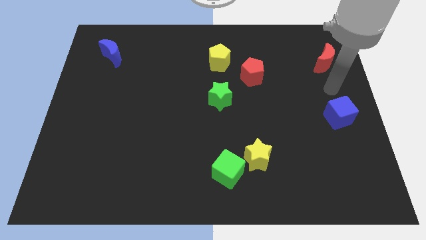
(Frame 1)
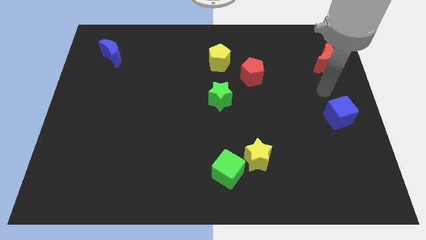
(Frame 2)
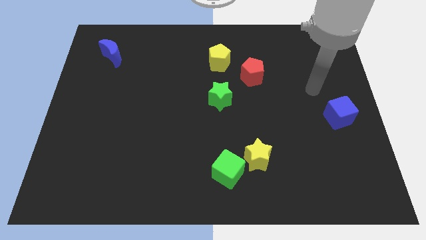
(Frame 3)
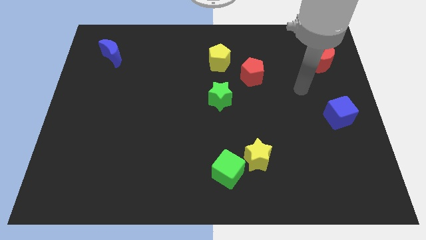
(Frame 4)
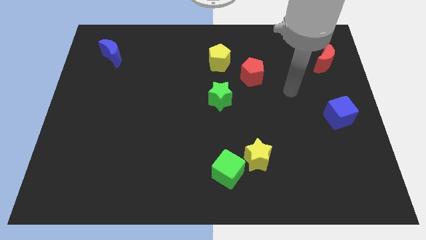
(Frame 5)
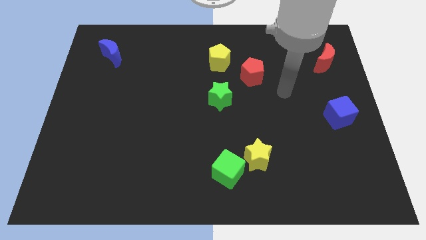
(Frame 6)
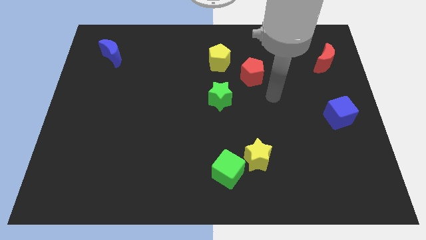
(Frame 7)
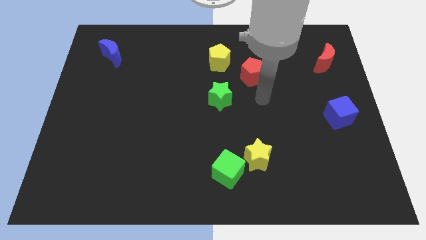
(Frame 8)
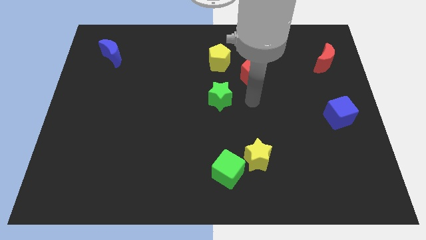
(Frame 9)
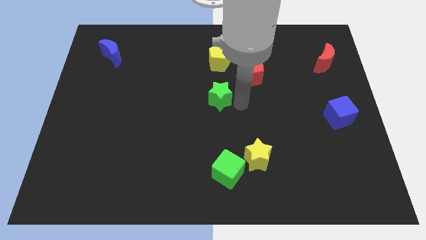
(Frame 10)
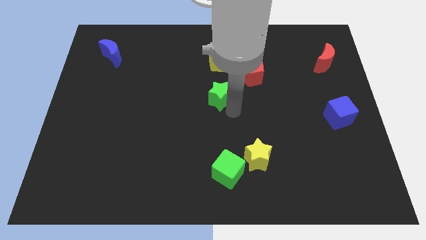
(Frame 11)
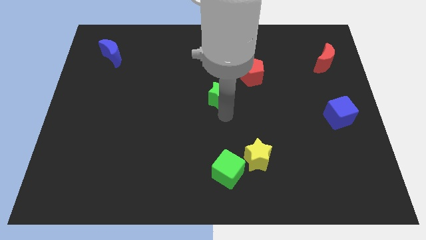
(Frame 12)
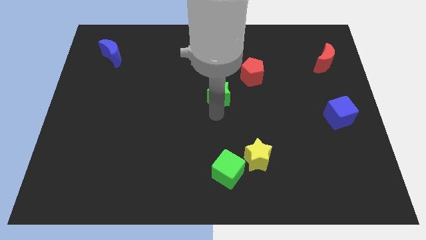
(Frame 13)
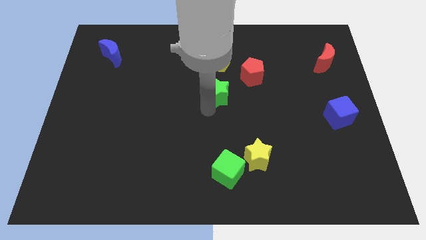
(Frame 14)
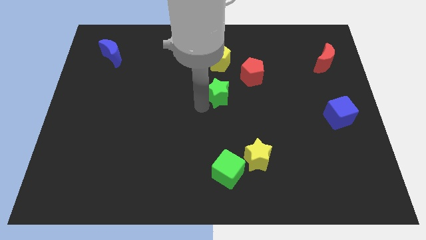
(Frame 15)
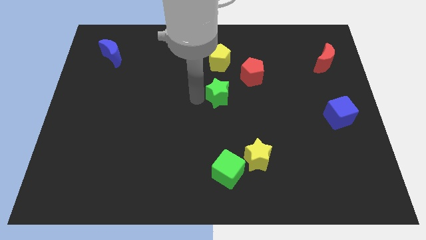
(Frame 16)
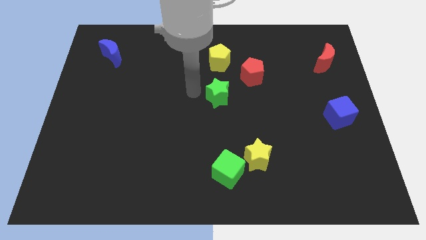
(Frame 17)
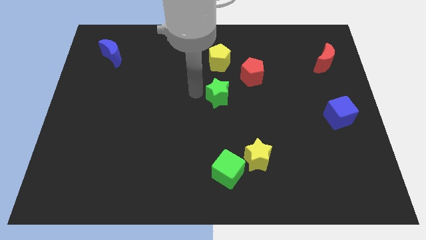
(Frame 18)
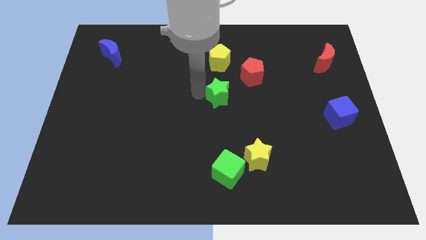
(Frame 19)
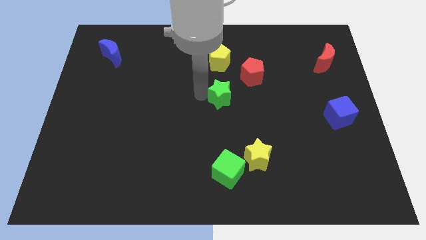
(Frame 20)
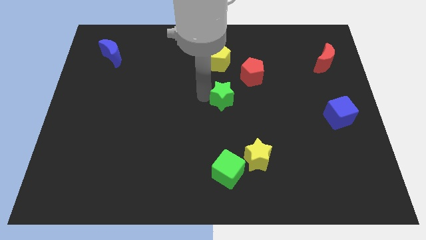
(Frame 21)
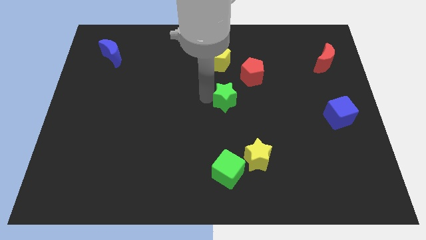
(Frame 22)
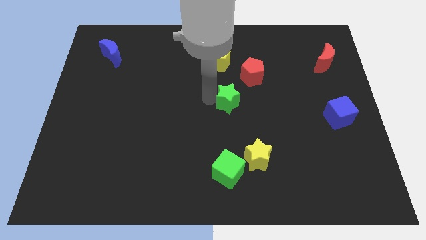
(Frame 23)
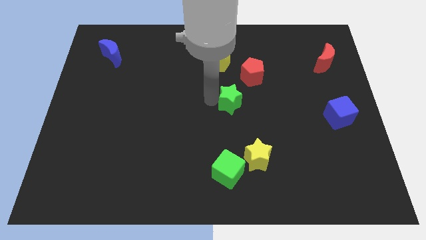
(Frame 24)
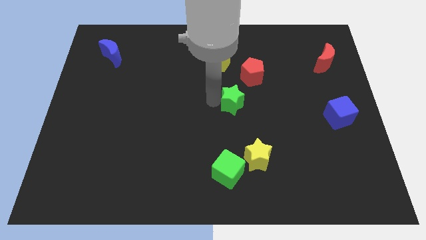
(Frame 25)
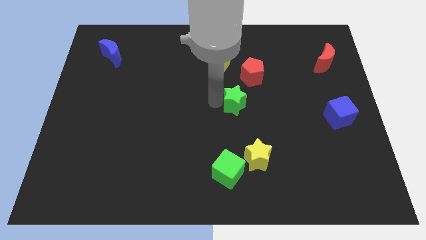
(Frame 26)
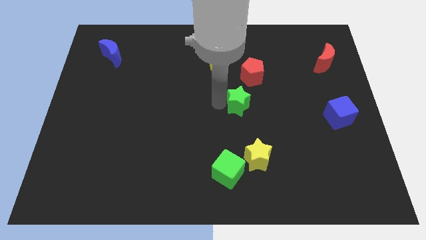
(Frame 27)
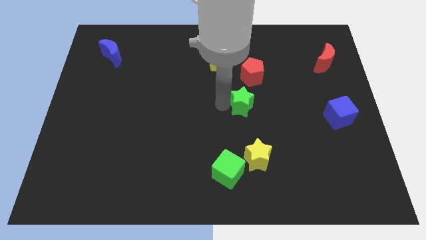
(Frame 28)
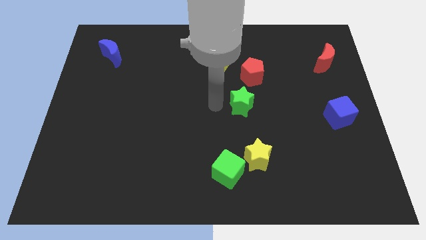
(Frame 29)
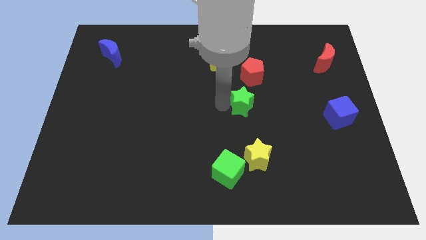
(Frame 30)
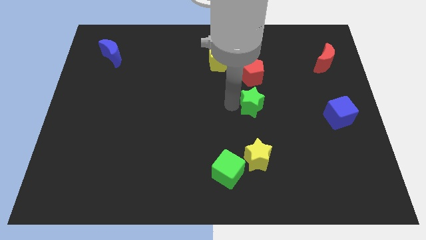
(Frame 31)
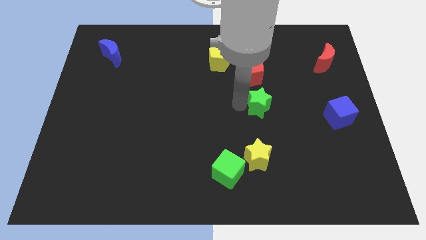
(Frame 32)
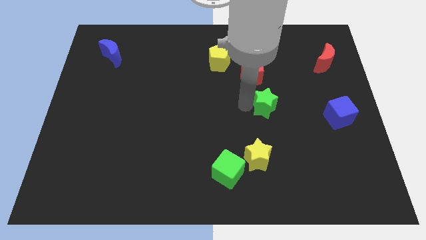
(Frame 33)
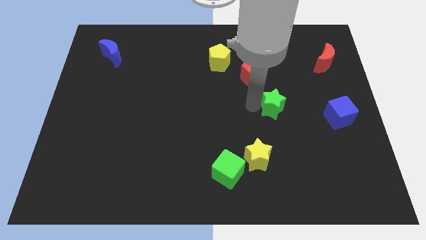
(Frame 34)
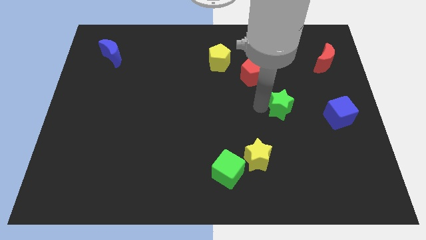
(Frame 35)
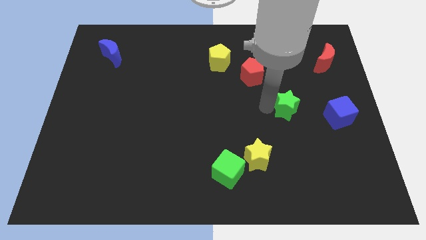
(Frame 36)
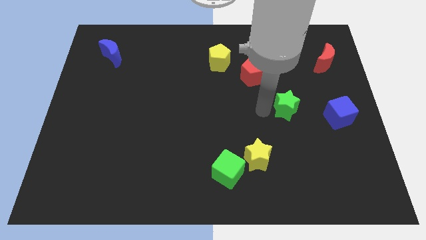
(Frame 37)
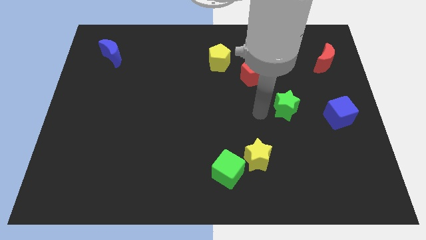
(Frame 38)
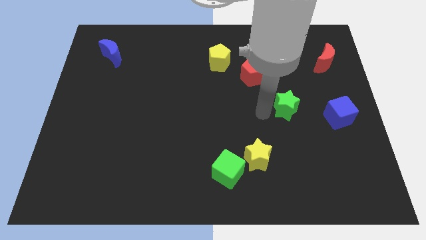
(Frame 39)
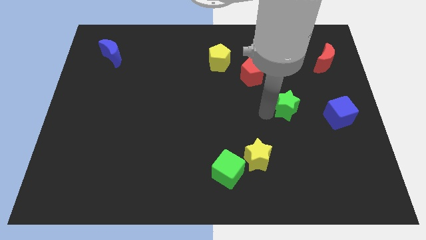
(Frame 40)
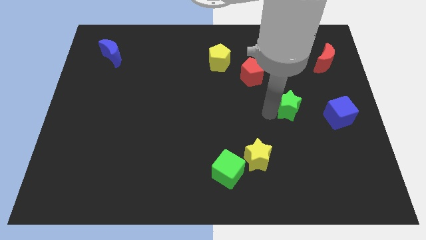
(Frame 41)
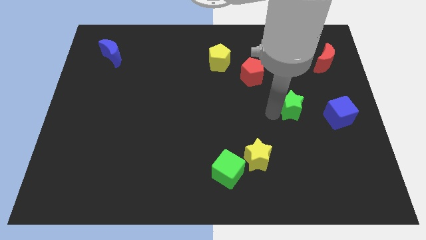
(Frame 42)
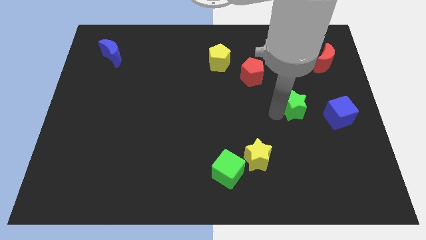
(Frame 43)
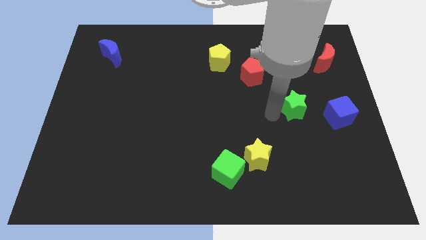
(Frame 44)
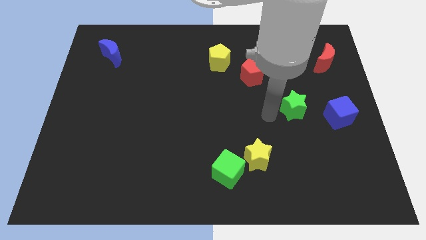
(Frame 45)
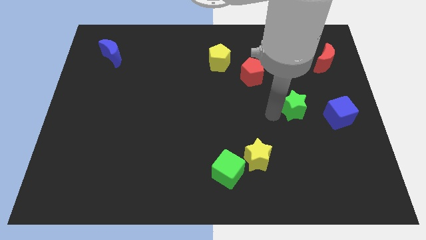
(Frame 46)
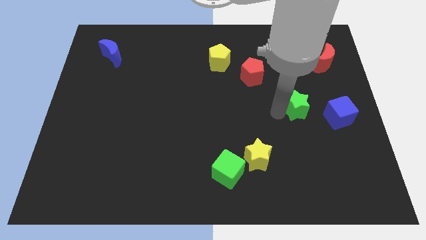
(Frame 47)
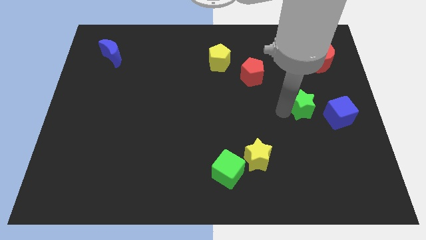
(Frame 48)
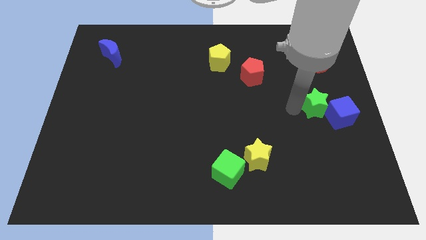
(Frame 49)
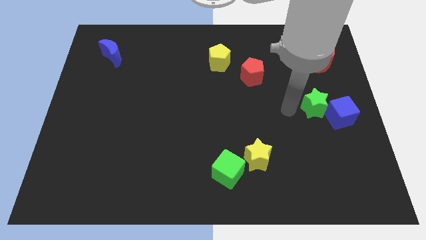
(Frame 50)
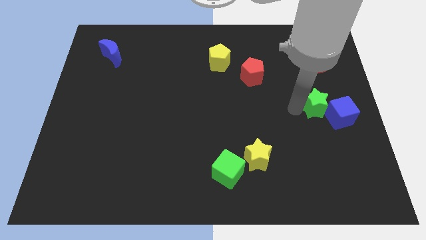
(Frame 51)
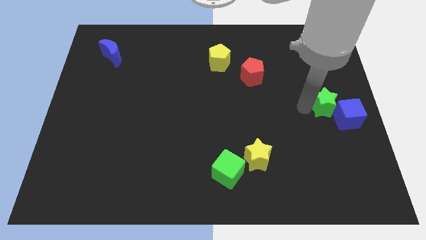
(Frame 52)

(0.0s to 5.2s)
put the green star to the center right

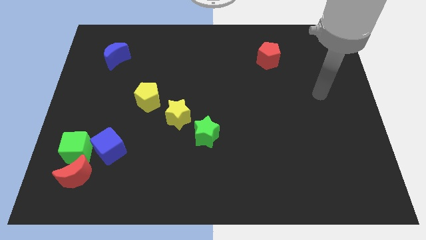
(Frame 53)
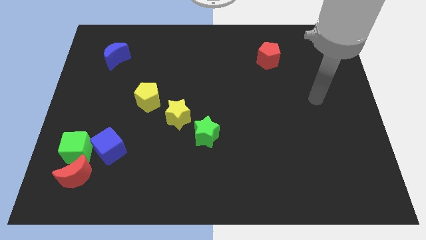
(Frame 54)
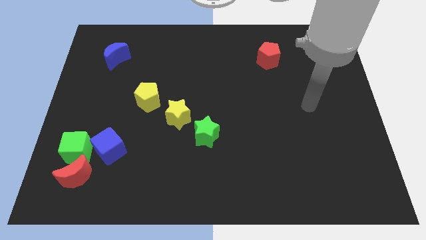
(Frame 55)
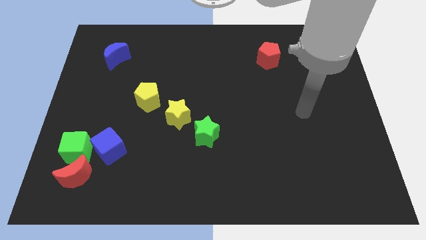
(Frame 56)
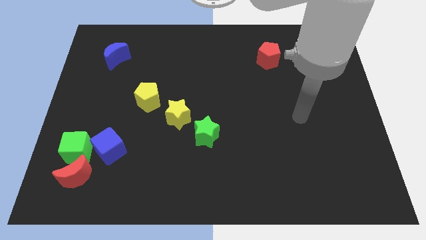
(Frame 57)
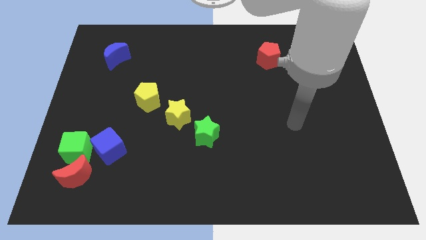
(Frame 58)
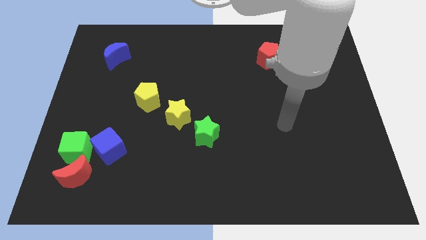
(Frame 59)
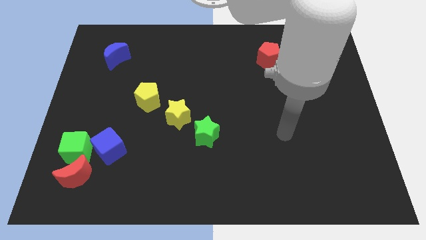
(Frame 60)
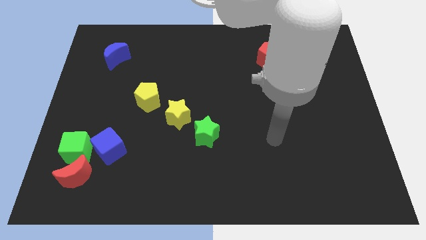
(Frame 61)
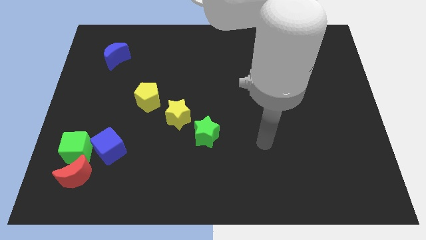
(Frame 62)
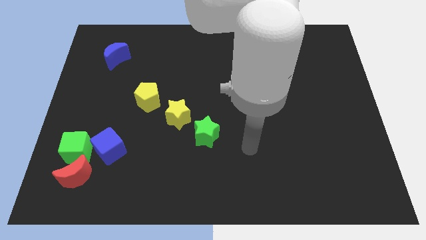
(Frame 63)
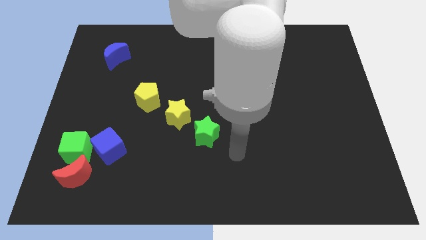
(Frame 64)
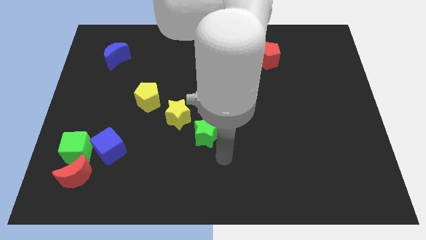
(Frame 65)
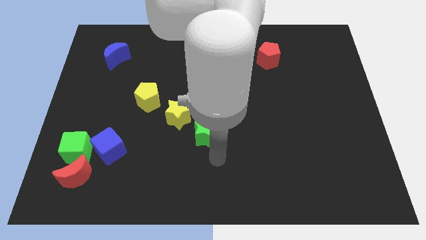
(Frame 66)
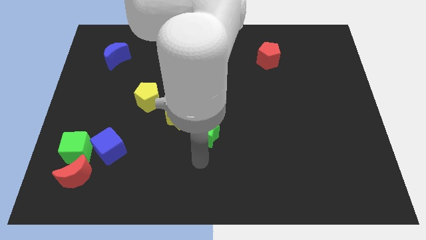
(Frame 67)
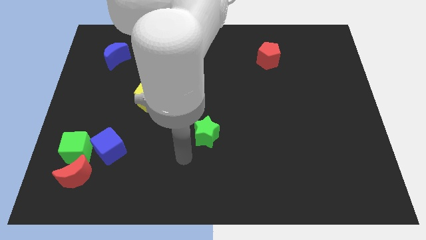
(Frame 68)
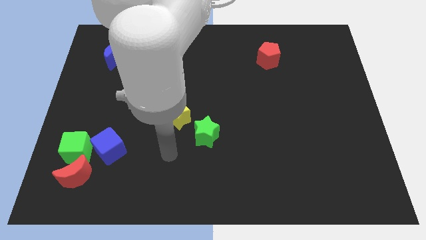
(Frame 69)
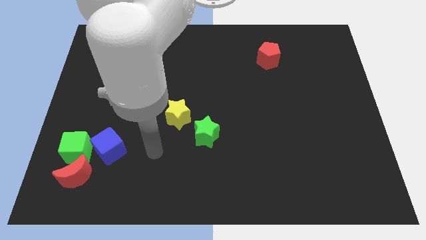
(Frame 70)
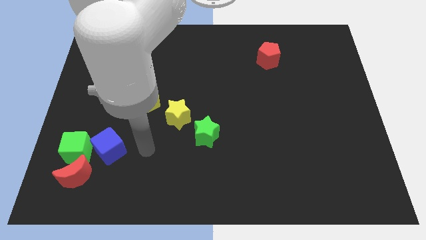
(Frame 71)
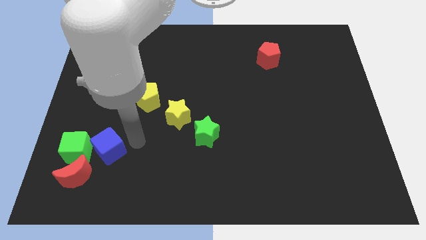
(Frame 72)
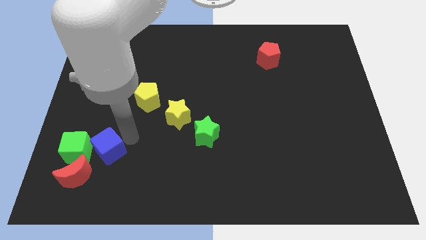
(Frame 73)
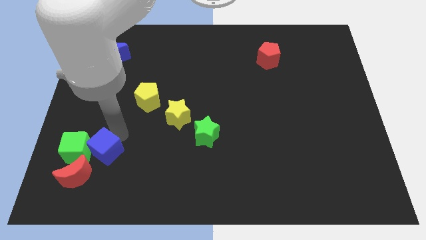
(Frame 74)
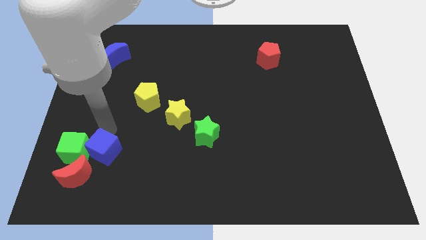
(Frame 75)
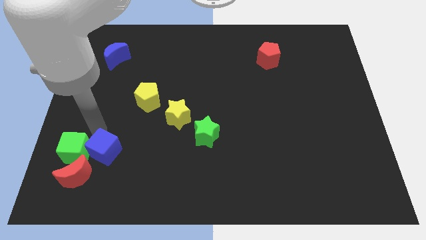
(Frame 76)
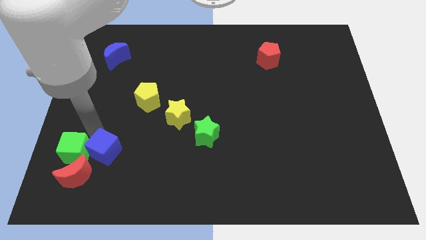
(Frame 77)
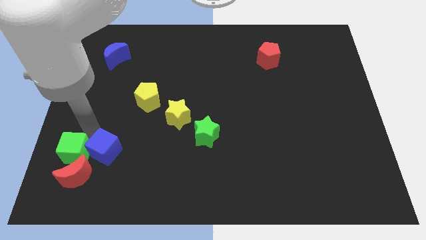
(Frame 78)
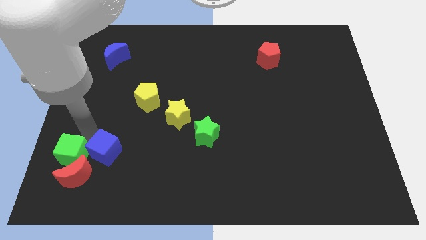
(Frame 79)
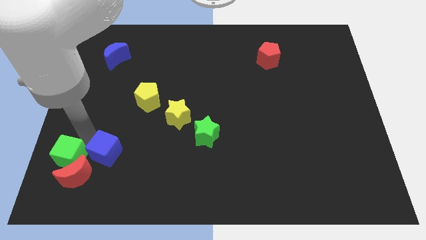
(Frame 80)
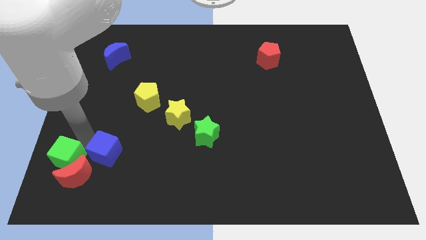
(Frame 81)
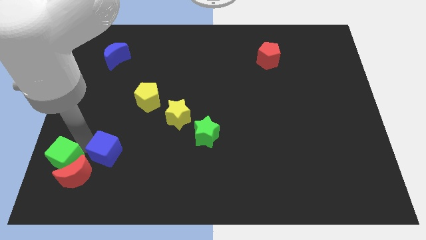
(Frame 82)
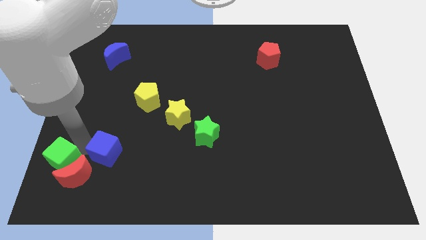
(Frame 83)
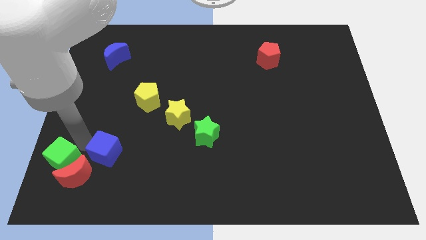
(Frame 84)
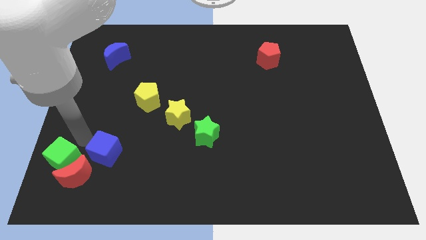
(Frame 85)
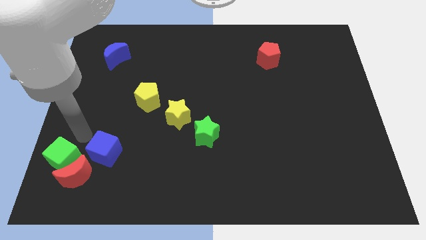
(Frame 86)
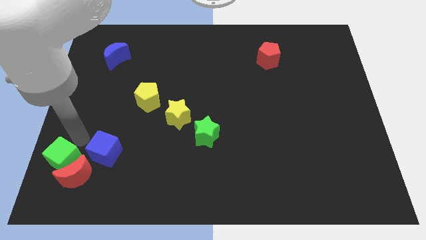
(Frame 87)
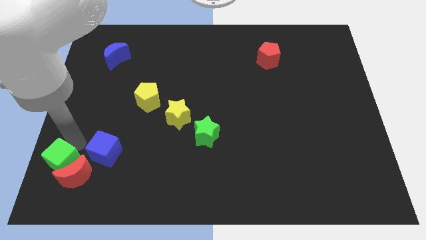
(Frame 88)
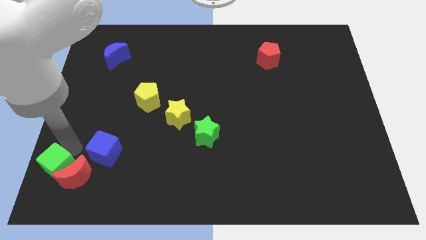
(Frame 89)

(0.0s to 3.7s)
slide the green cube to the bottom left corner
